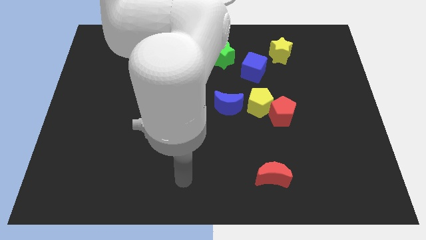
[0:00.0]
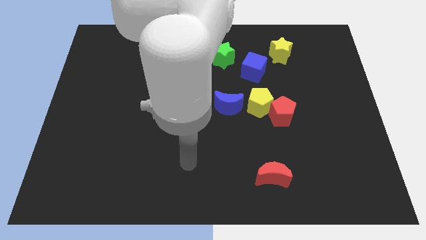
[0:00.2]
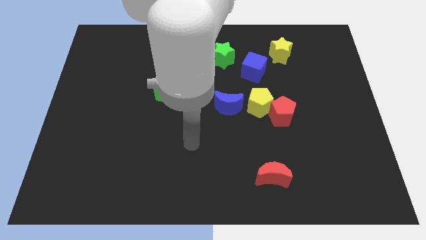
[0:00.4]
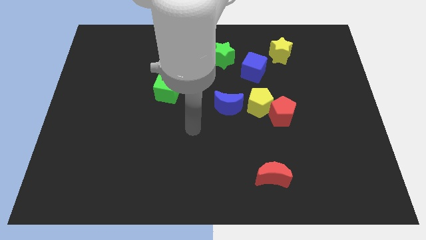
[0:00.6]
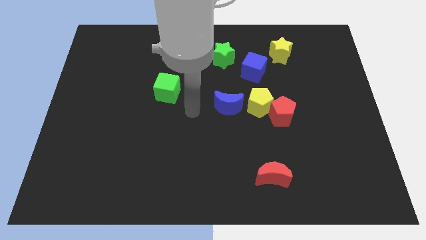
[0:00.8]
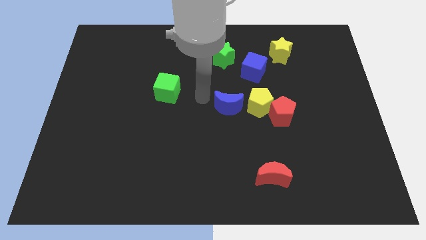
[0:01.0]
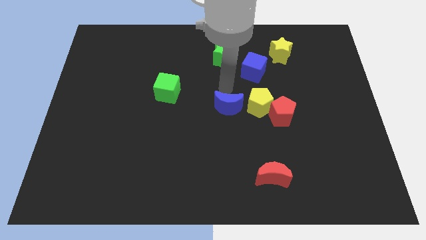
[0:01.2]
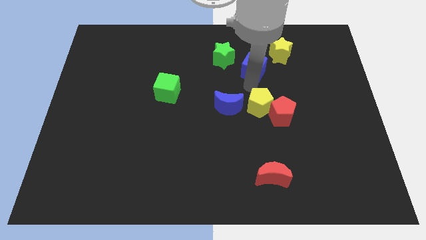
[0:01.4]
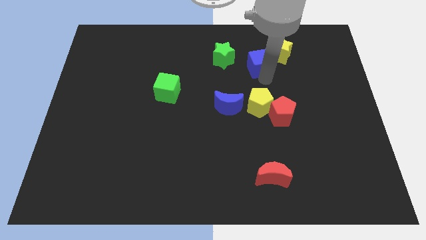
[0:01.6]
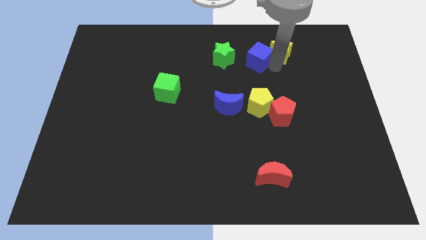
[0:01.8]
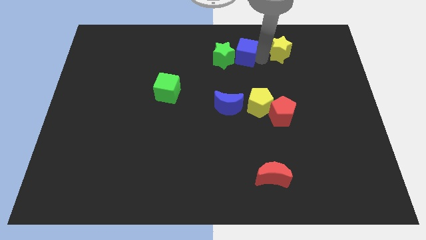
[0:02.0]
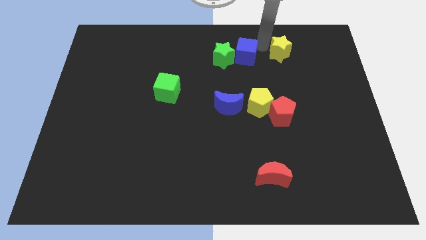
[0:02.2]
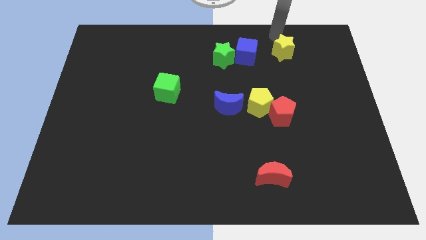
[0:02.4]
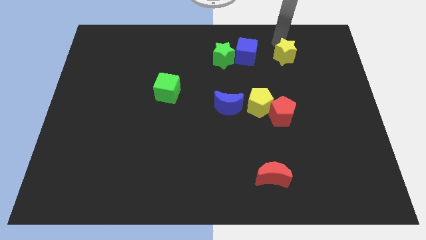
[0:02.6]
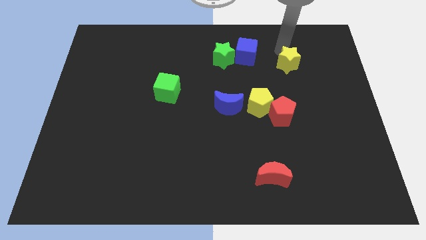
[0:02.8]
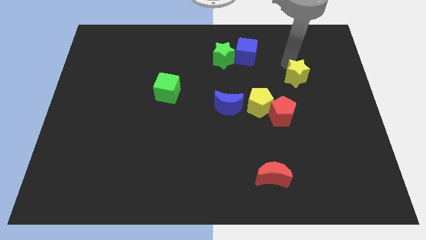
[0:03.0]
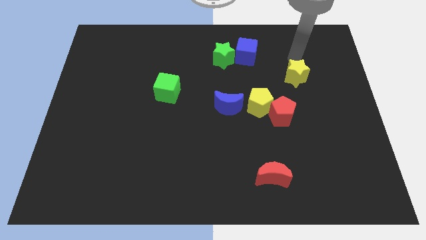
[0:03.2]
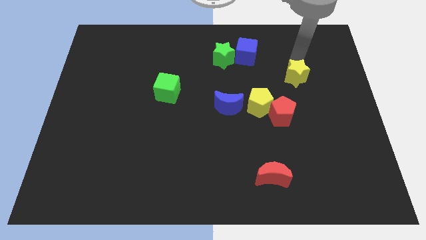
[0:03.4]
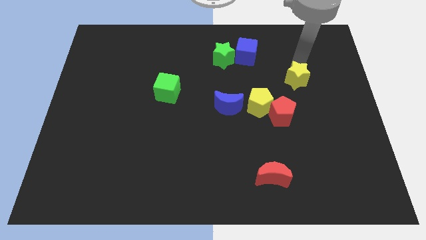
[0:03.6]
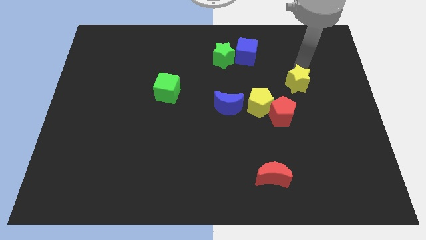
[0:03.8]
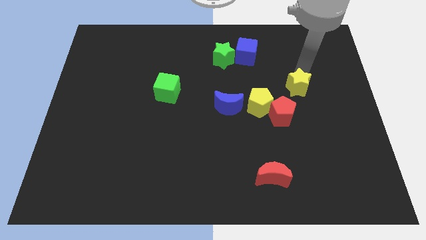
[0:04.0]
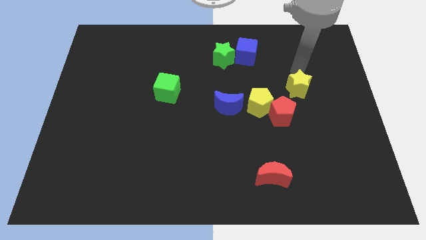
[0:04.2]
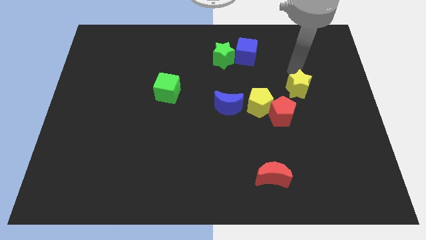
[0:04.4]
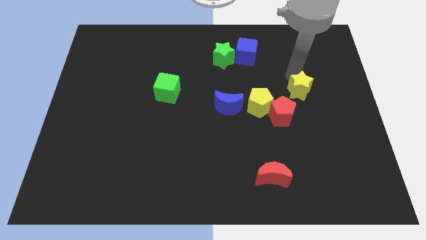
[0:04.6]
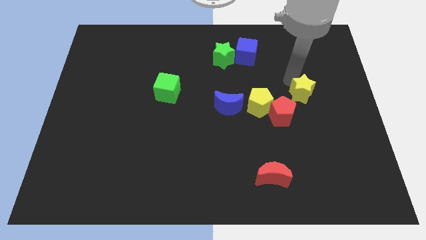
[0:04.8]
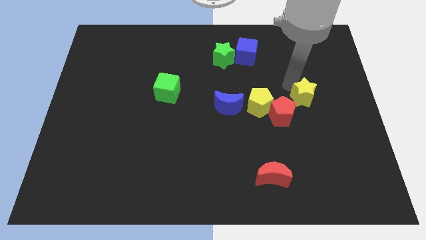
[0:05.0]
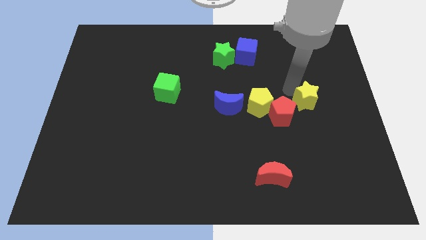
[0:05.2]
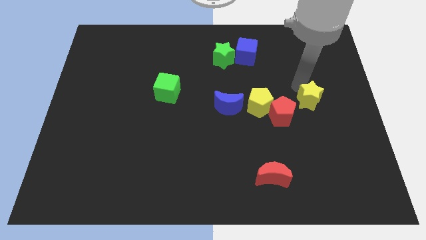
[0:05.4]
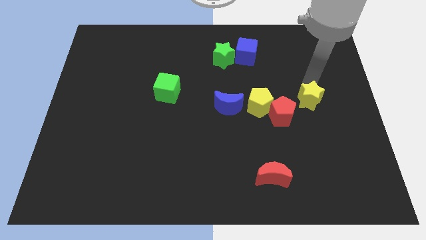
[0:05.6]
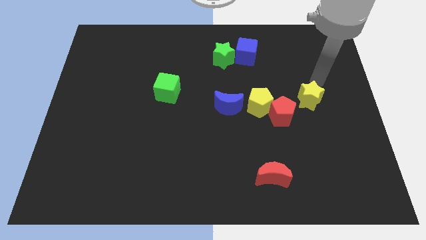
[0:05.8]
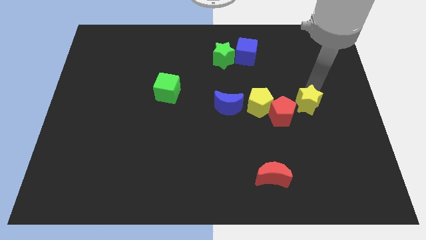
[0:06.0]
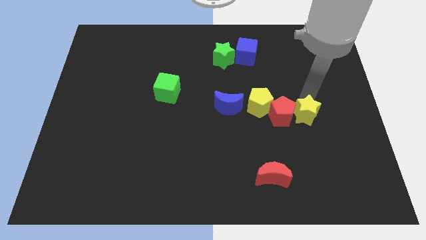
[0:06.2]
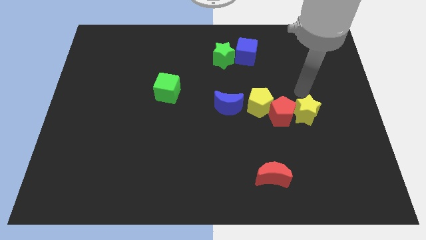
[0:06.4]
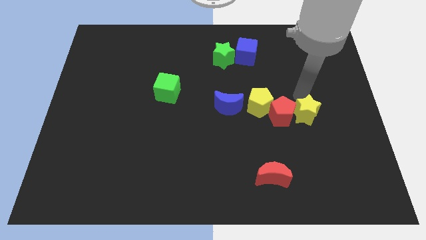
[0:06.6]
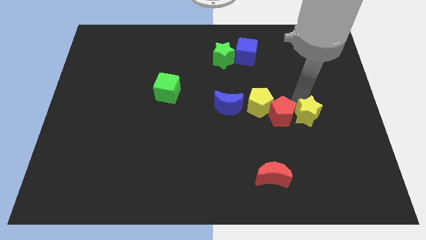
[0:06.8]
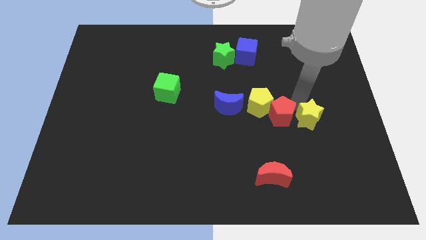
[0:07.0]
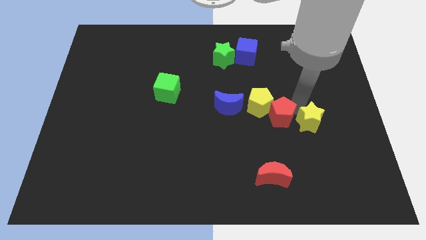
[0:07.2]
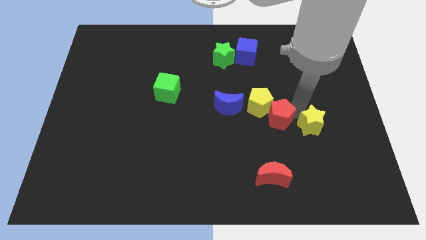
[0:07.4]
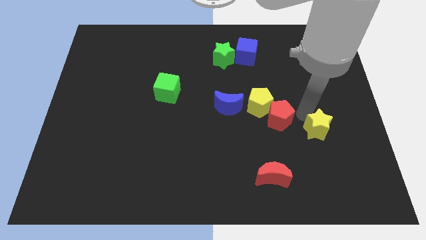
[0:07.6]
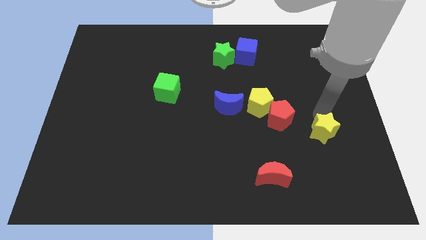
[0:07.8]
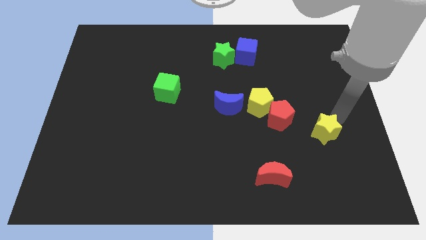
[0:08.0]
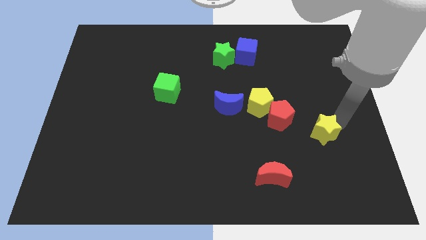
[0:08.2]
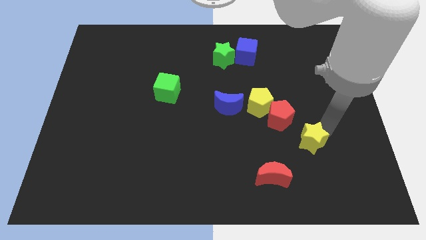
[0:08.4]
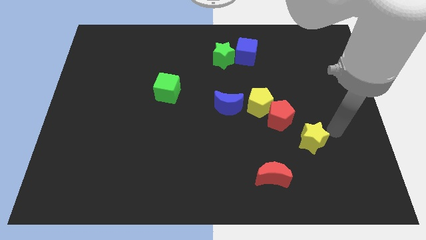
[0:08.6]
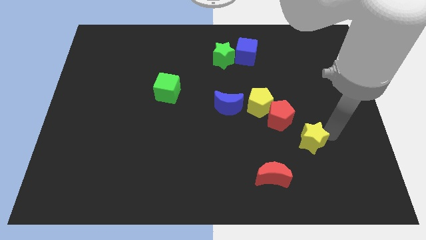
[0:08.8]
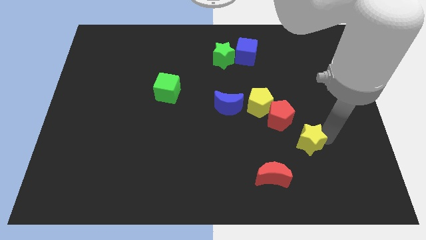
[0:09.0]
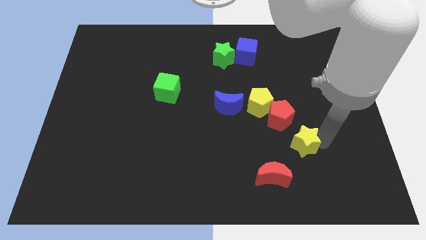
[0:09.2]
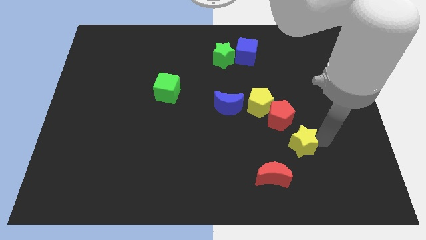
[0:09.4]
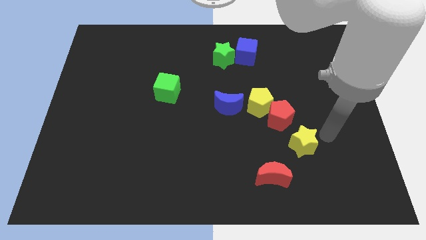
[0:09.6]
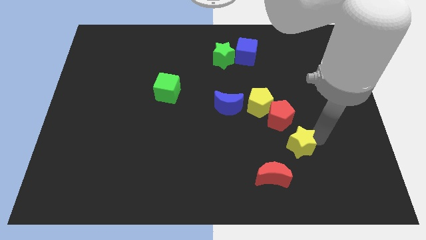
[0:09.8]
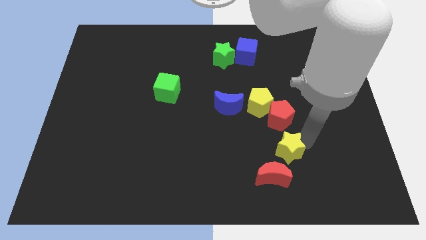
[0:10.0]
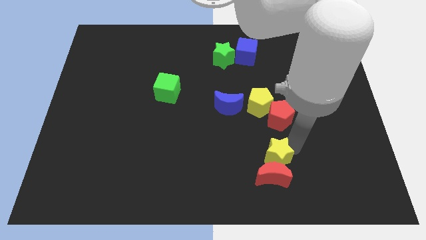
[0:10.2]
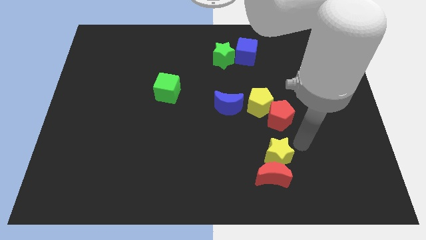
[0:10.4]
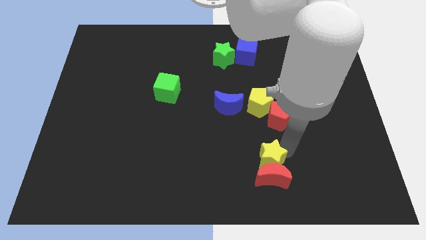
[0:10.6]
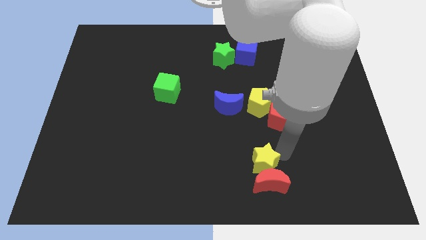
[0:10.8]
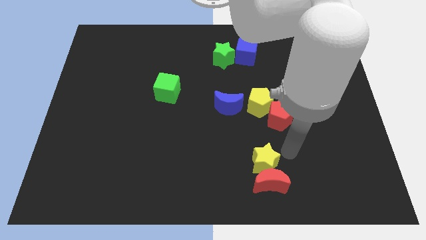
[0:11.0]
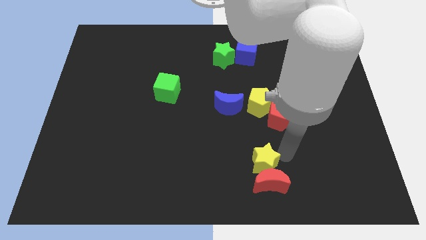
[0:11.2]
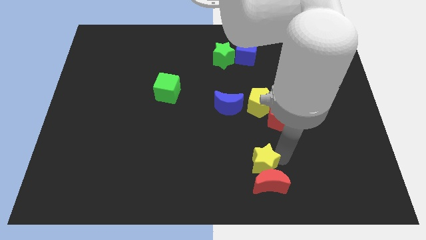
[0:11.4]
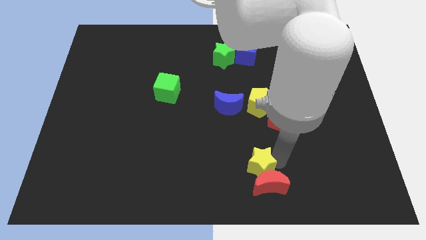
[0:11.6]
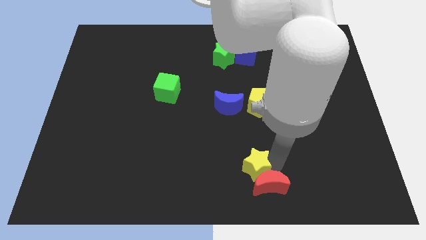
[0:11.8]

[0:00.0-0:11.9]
slide the yellow star to the bottom side
